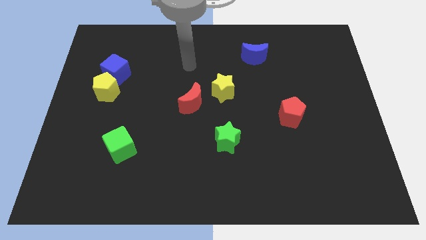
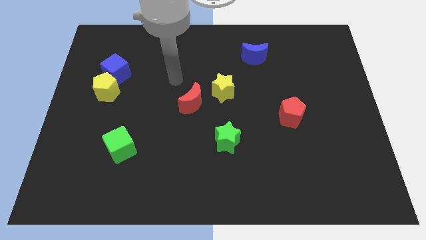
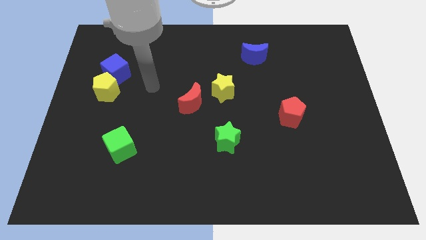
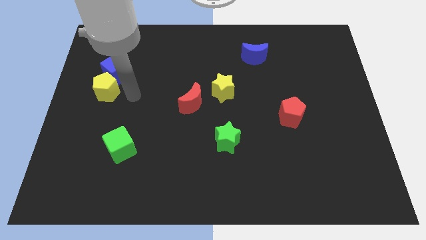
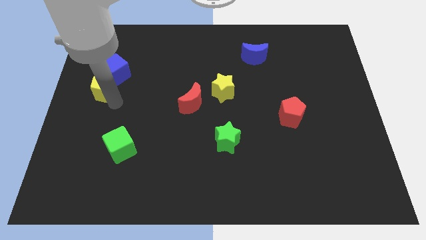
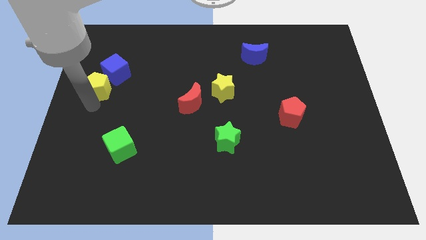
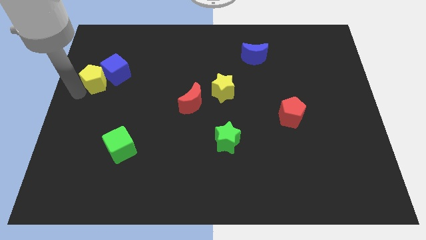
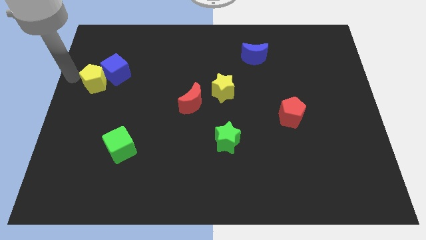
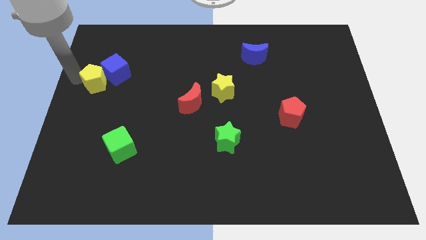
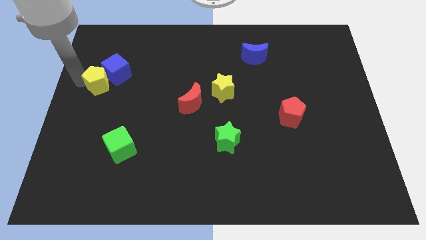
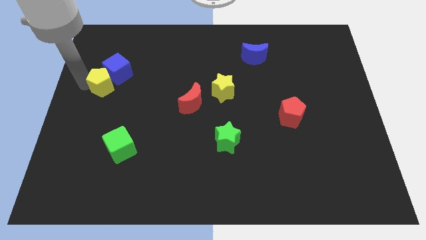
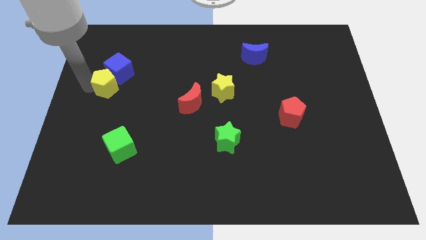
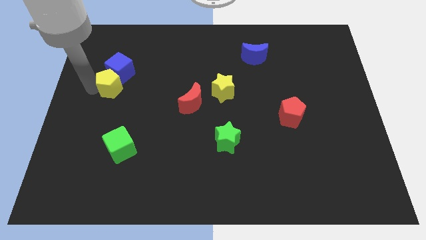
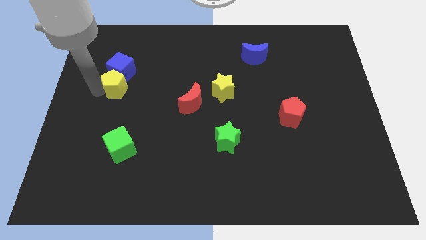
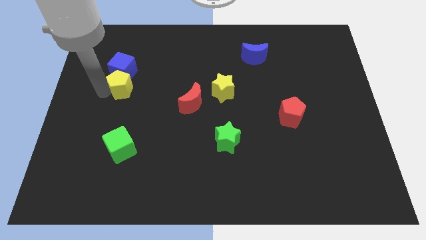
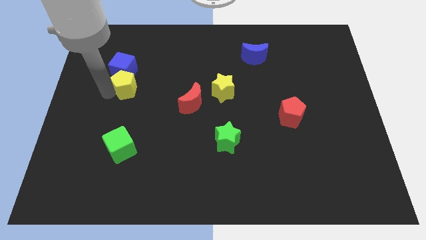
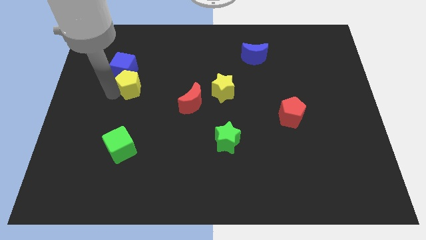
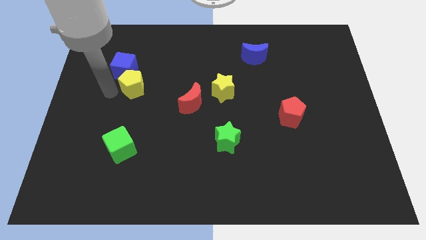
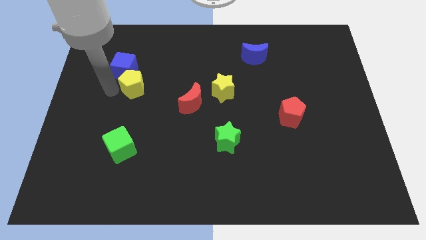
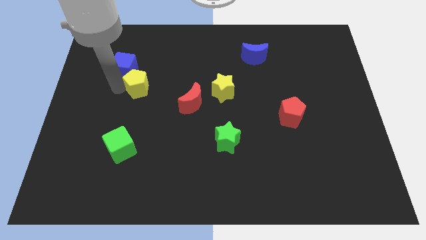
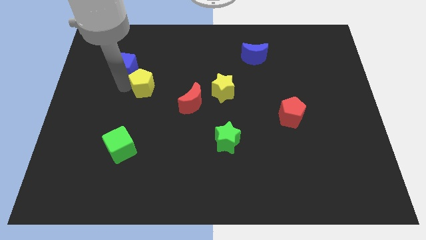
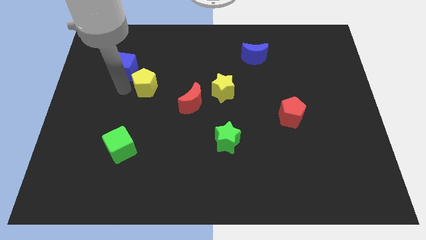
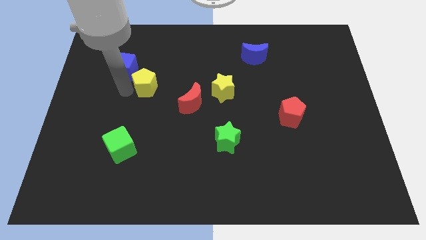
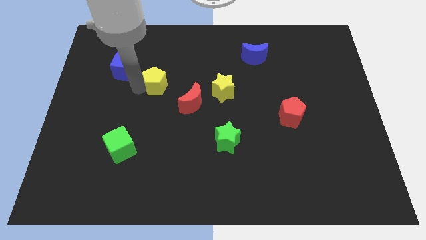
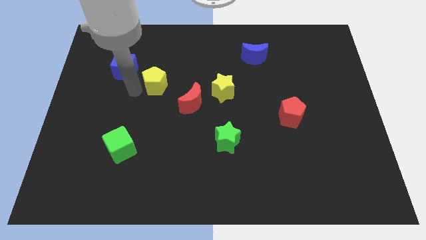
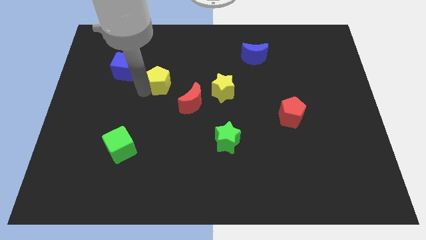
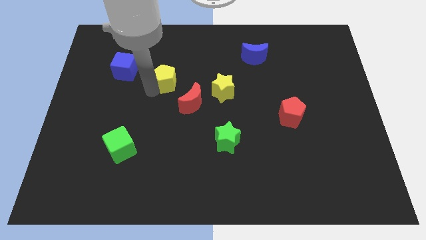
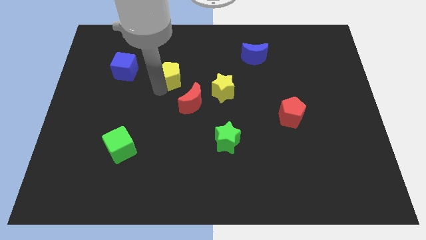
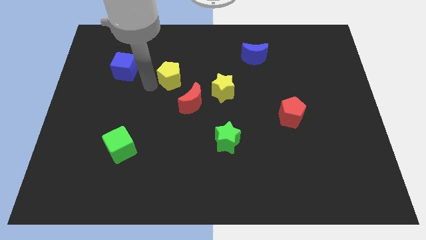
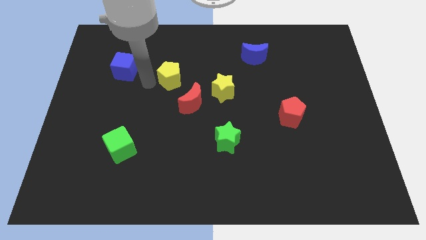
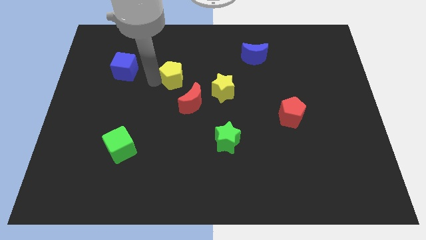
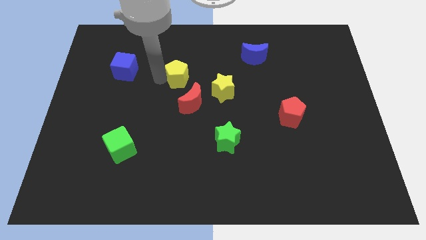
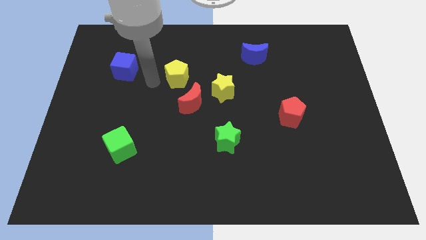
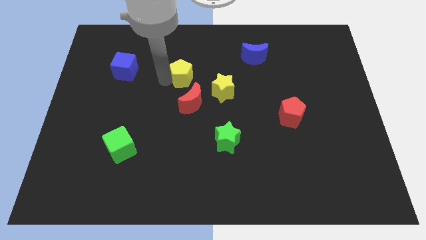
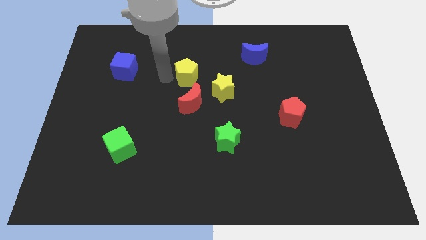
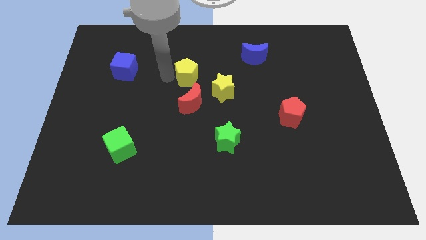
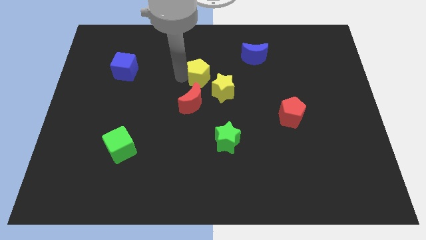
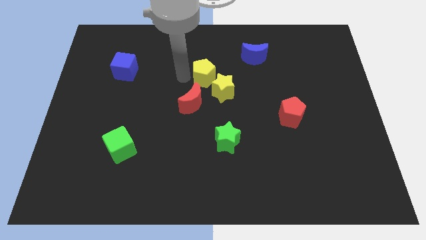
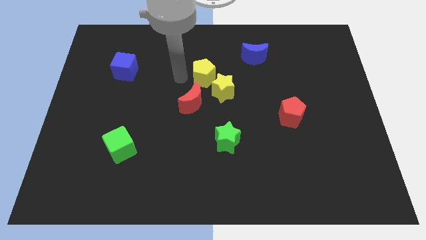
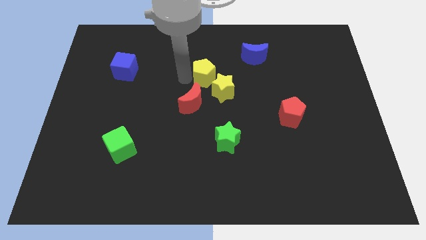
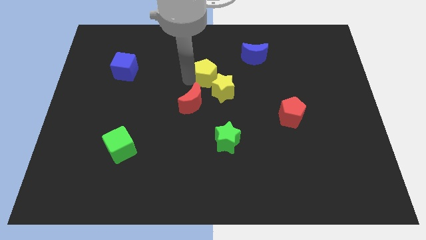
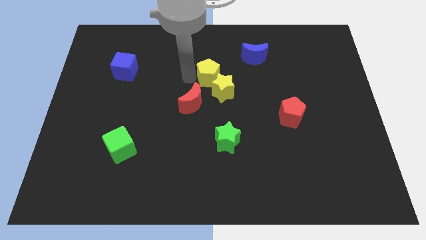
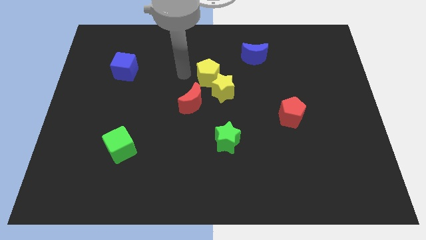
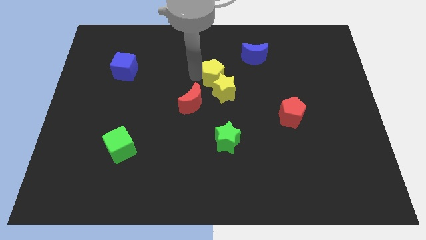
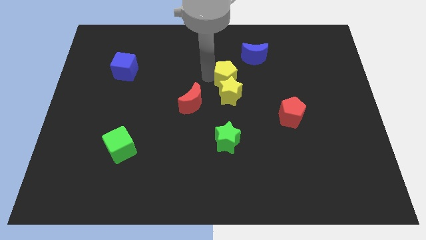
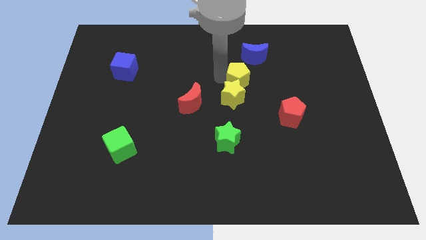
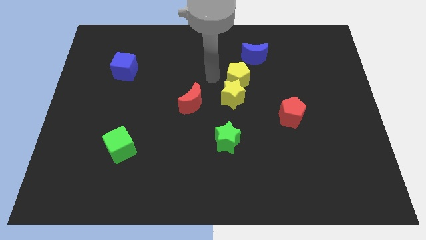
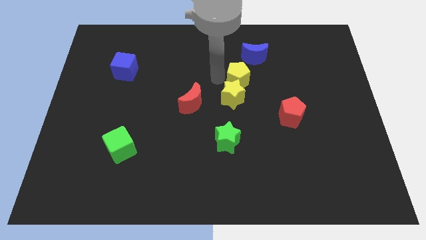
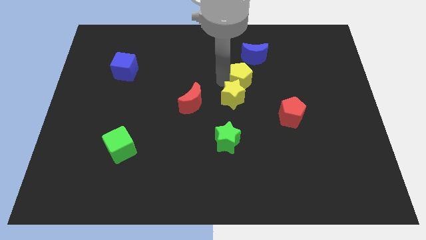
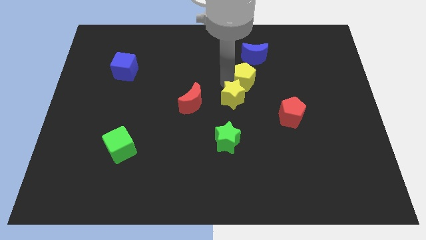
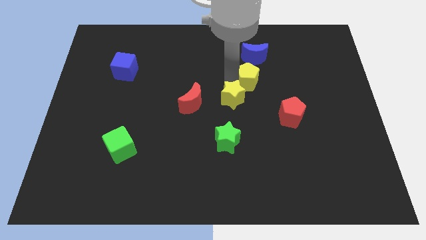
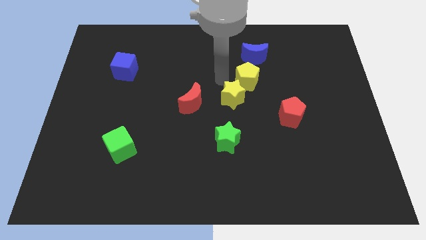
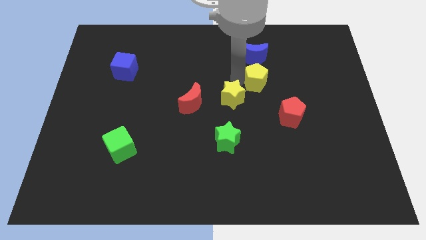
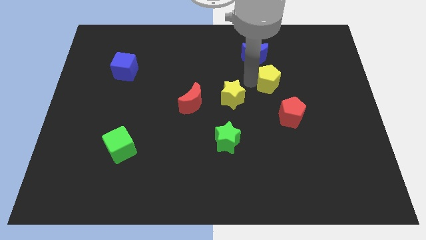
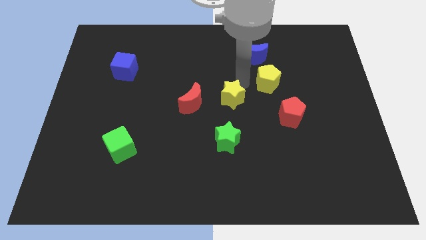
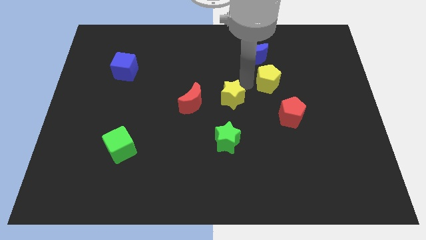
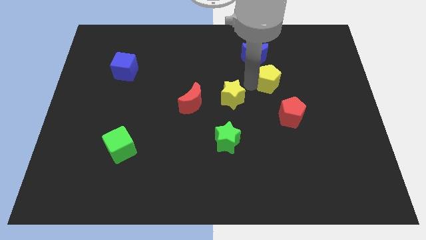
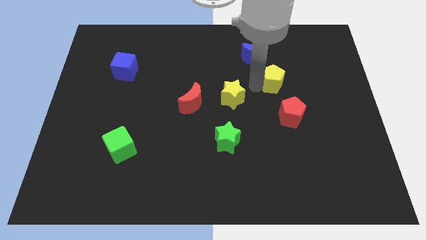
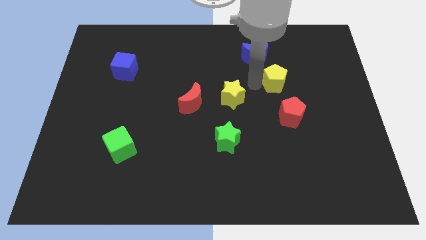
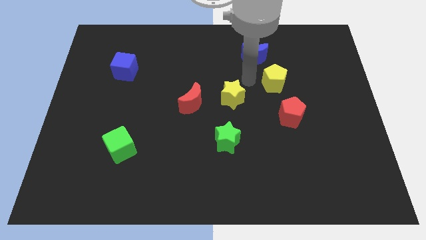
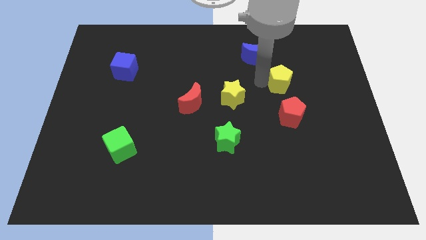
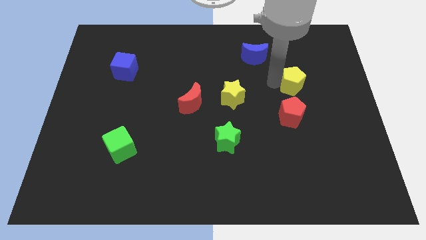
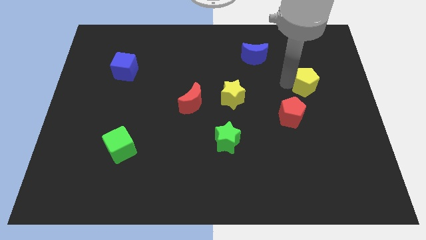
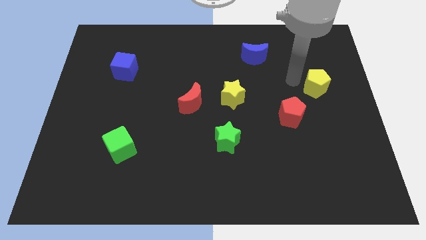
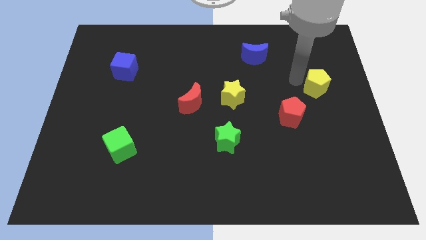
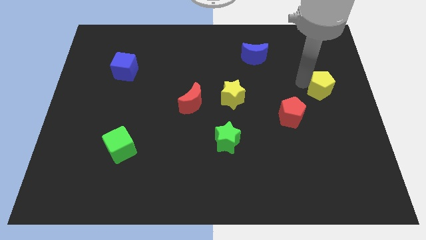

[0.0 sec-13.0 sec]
push the yellow pentagon to the right side
